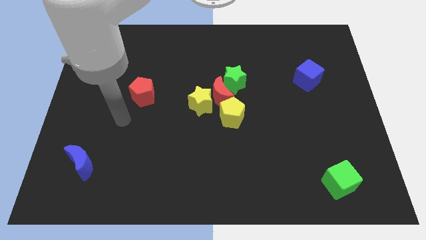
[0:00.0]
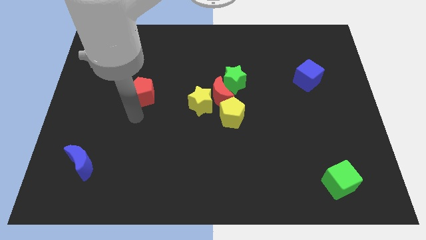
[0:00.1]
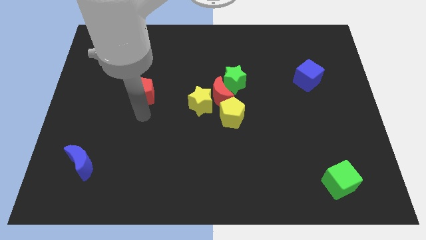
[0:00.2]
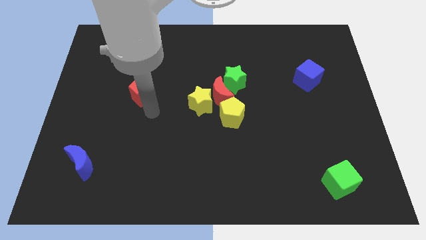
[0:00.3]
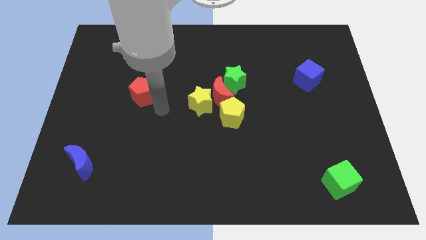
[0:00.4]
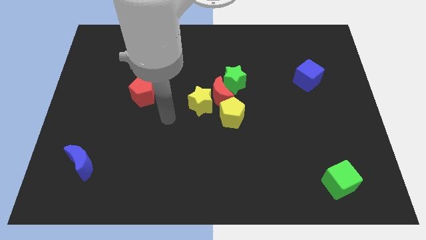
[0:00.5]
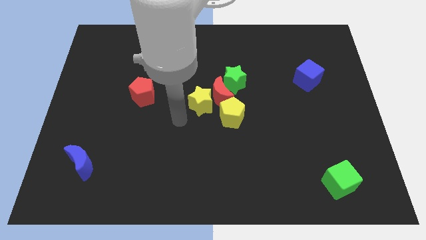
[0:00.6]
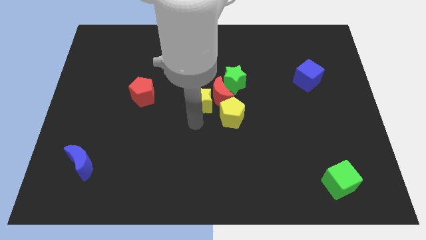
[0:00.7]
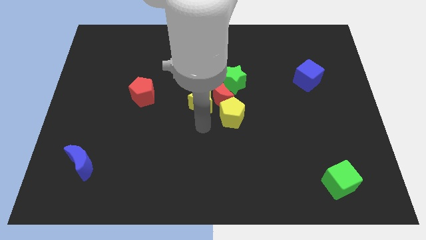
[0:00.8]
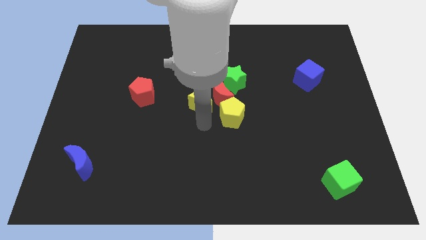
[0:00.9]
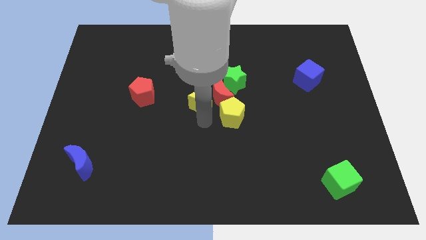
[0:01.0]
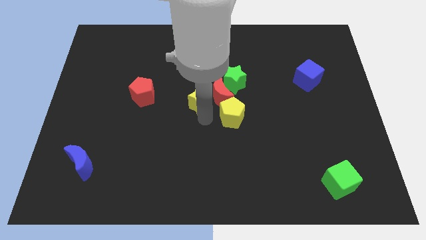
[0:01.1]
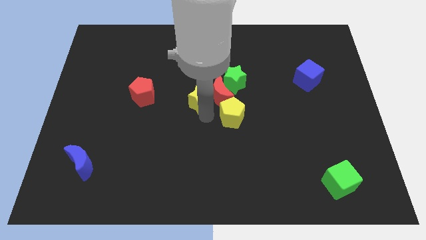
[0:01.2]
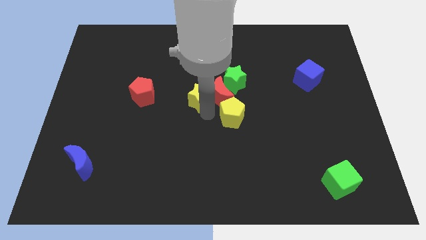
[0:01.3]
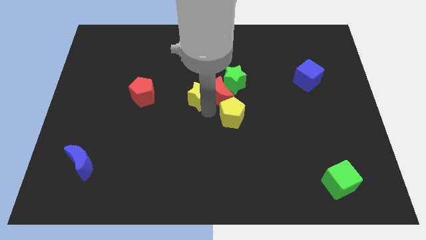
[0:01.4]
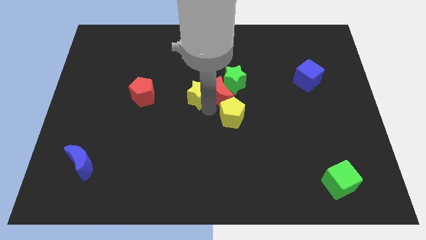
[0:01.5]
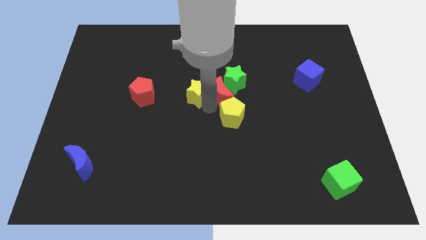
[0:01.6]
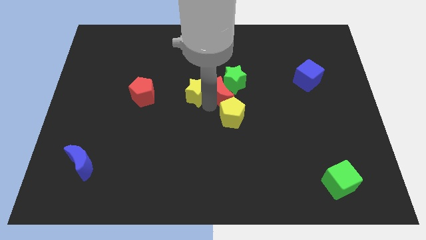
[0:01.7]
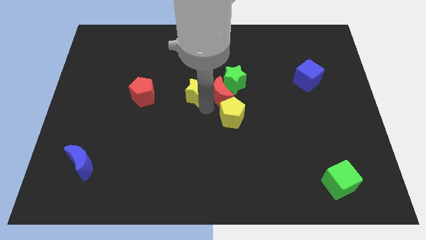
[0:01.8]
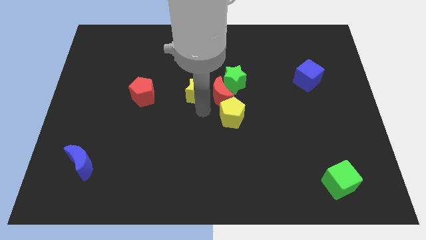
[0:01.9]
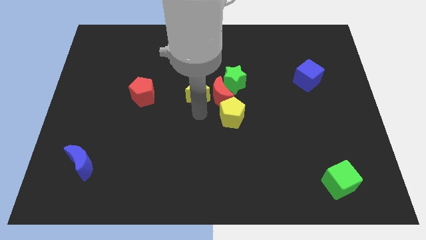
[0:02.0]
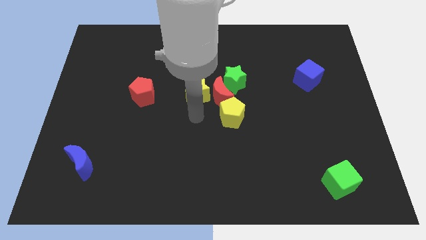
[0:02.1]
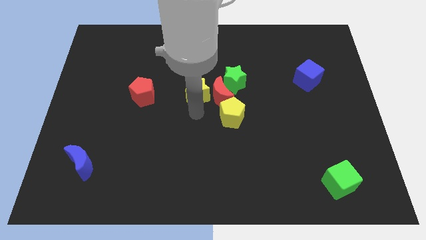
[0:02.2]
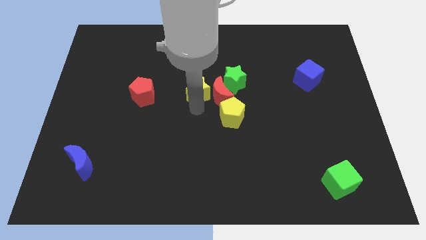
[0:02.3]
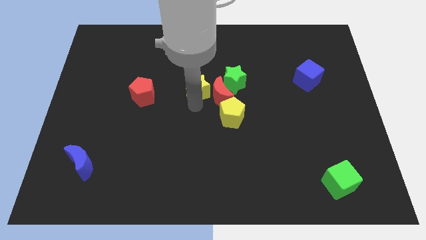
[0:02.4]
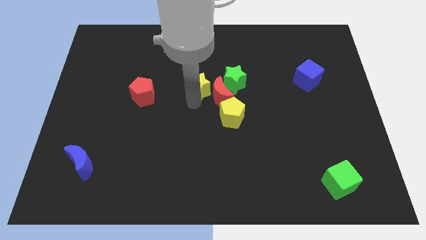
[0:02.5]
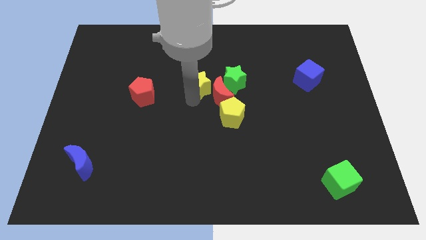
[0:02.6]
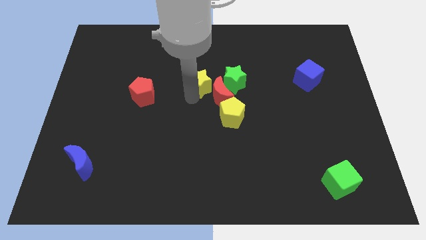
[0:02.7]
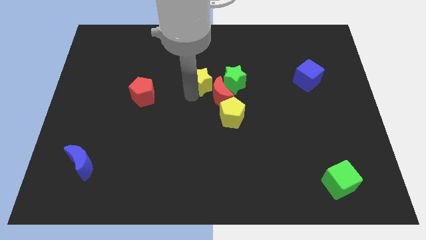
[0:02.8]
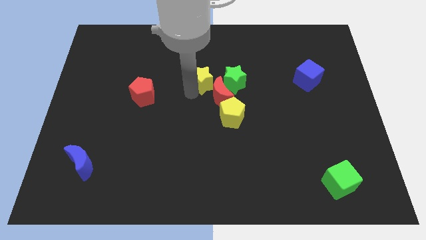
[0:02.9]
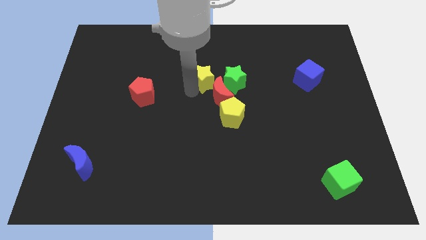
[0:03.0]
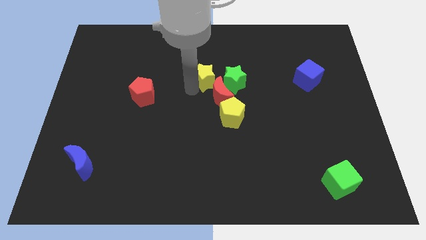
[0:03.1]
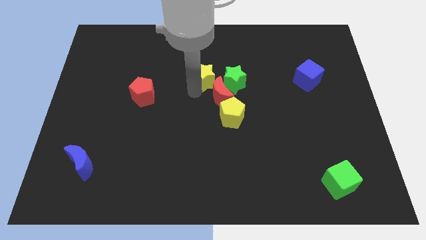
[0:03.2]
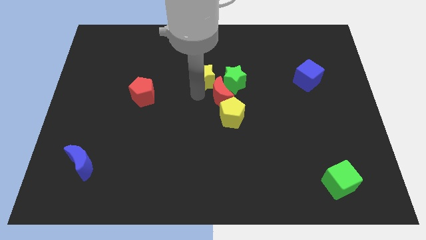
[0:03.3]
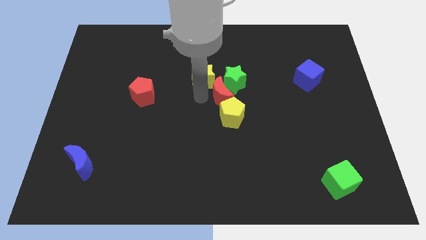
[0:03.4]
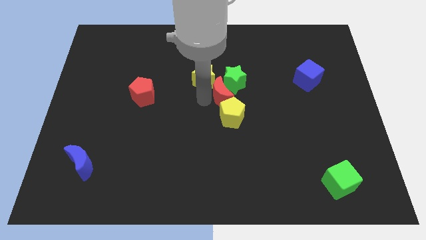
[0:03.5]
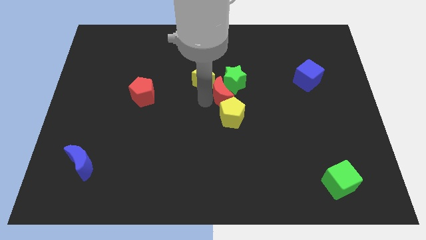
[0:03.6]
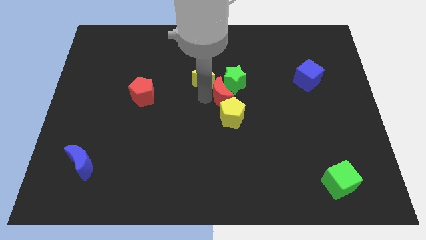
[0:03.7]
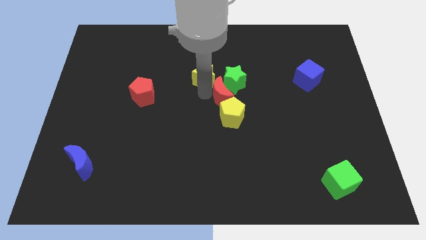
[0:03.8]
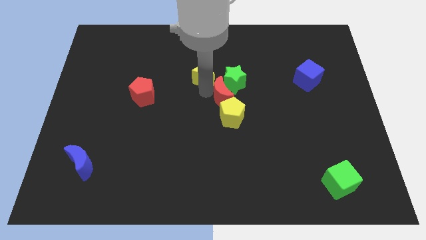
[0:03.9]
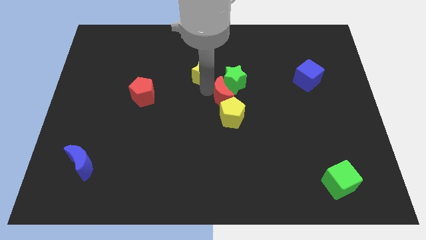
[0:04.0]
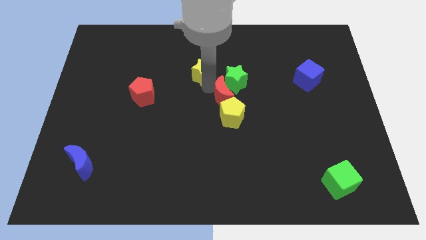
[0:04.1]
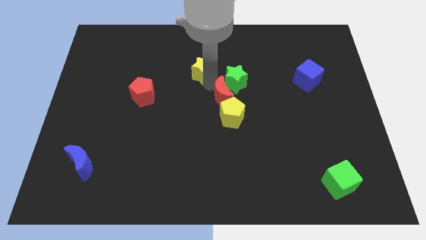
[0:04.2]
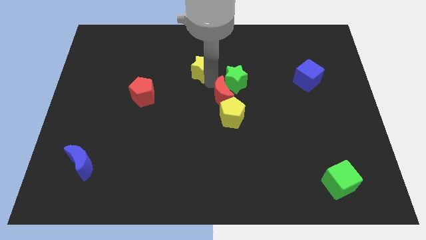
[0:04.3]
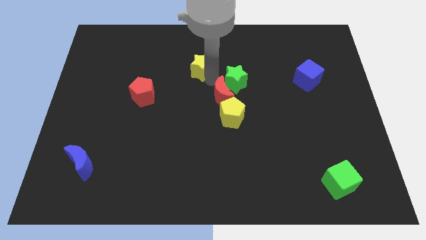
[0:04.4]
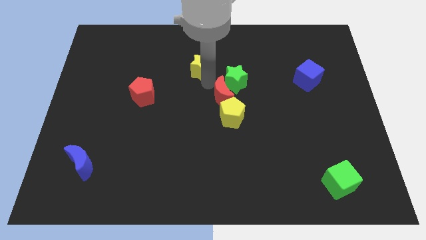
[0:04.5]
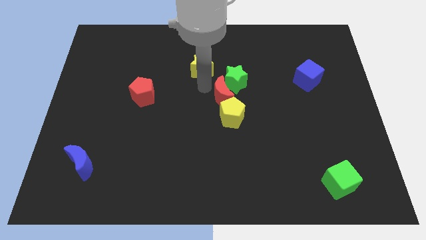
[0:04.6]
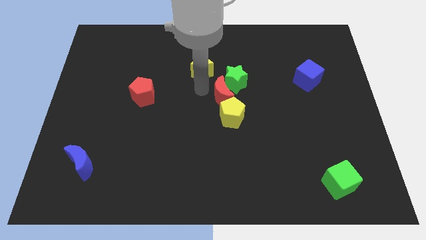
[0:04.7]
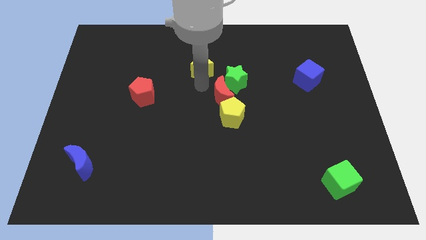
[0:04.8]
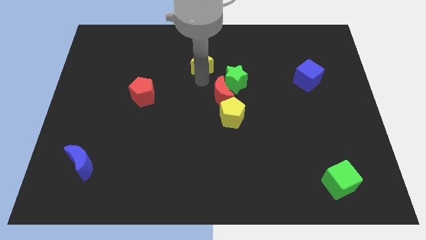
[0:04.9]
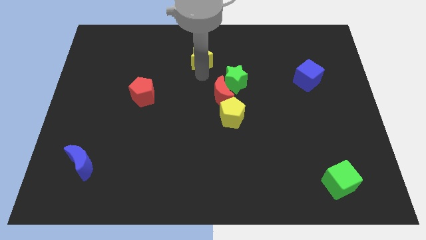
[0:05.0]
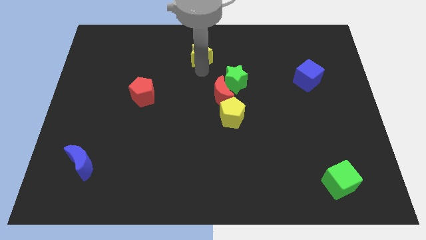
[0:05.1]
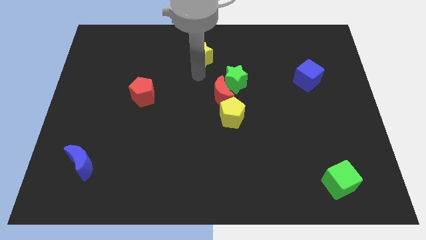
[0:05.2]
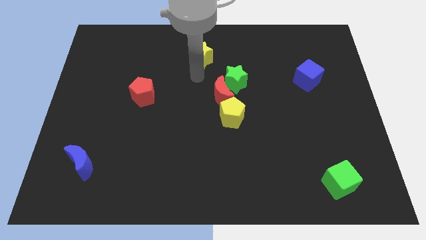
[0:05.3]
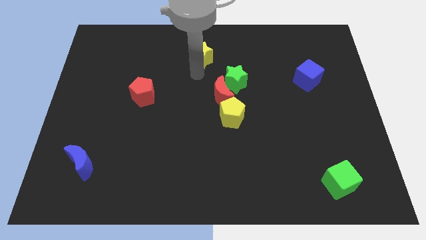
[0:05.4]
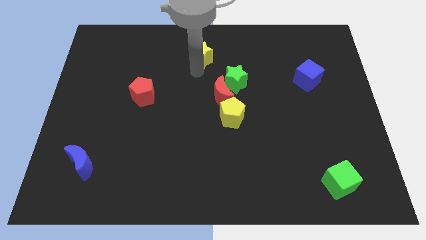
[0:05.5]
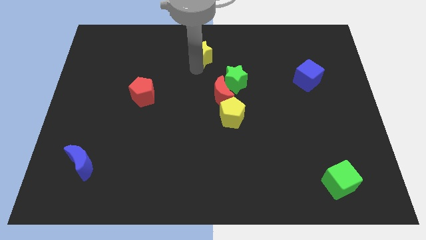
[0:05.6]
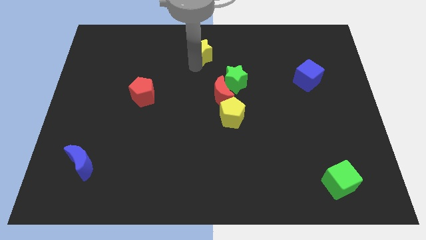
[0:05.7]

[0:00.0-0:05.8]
put the yellow star to the top side
